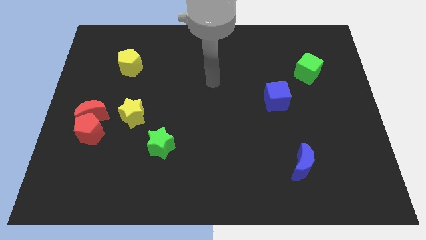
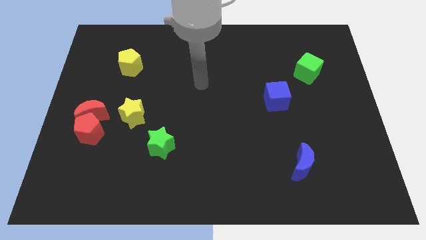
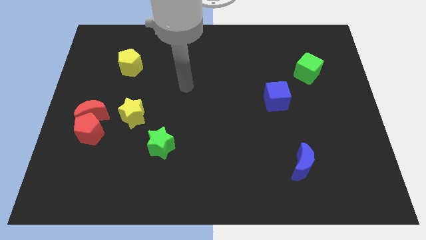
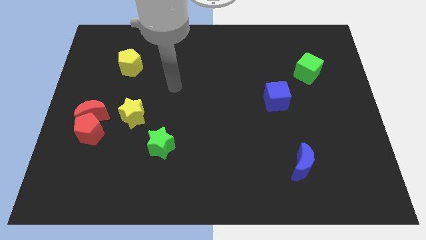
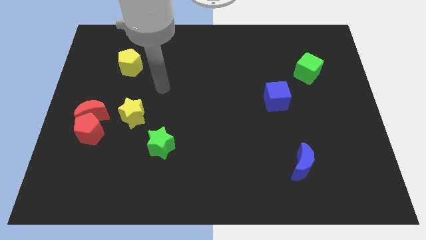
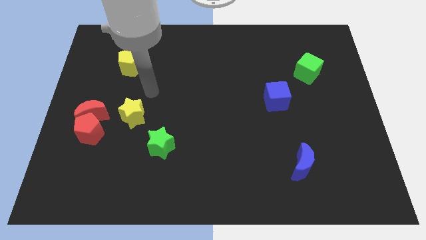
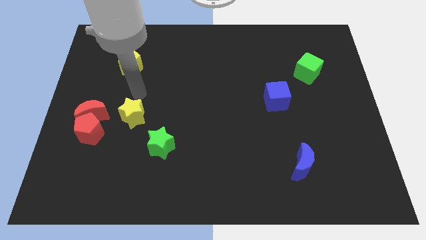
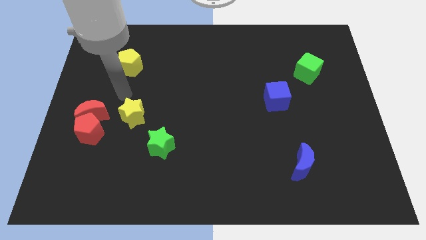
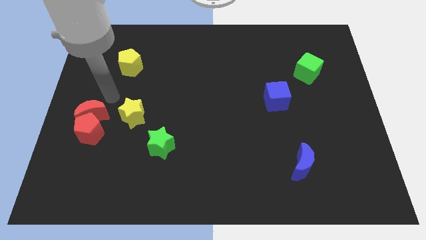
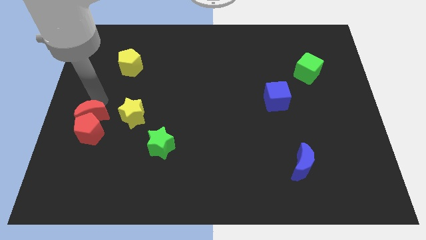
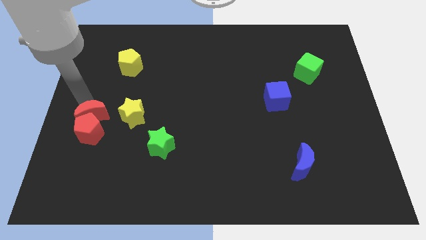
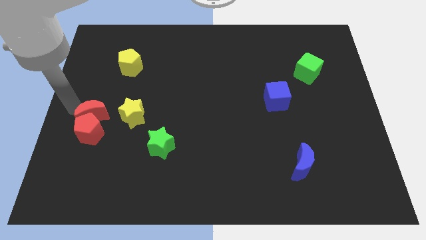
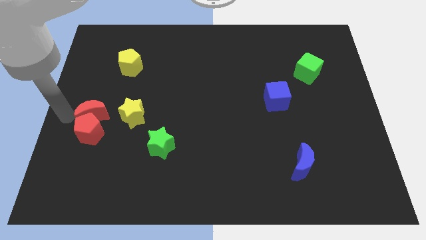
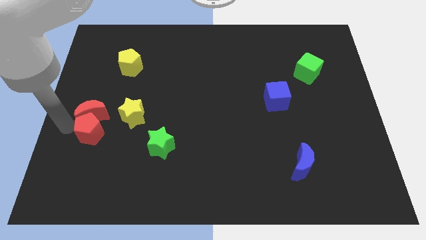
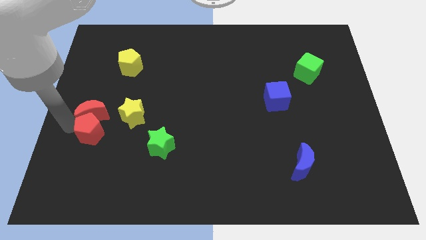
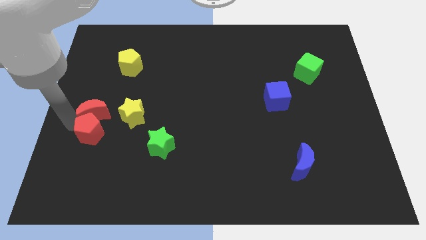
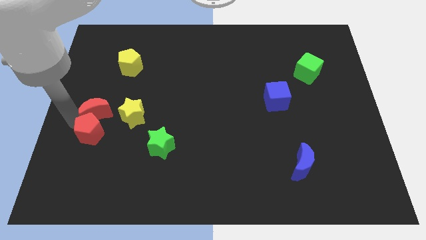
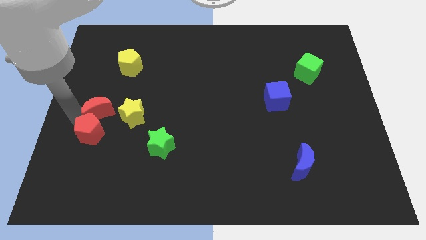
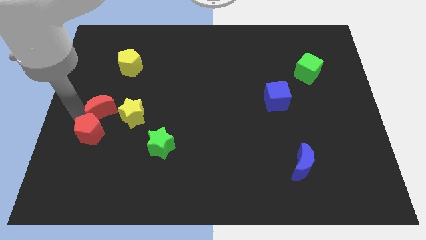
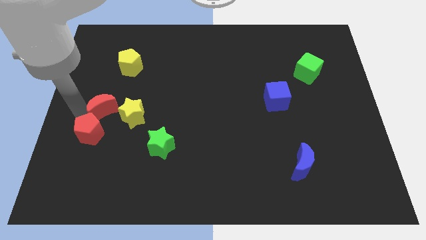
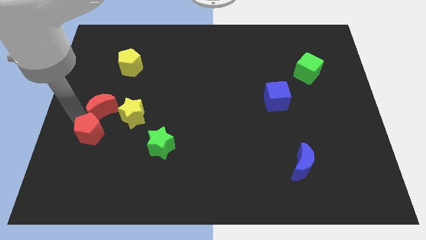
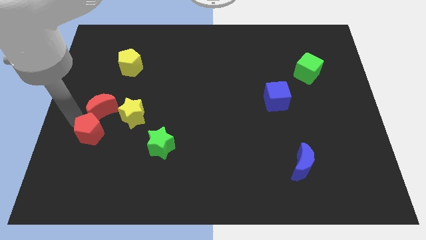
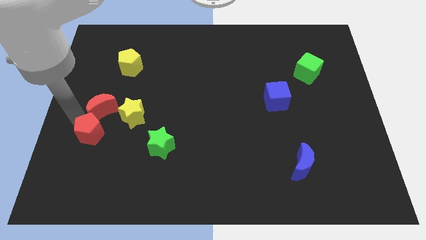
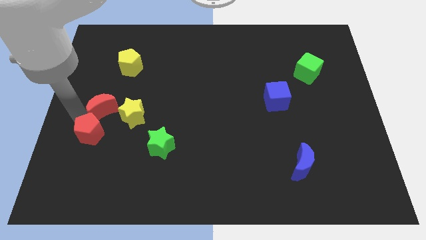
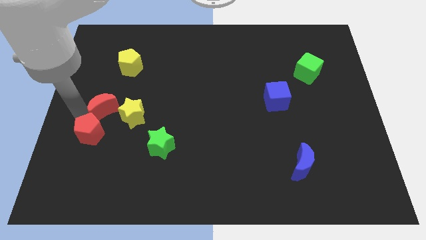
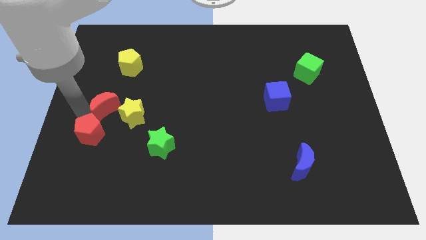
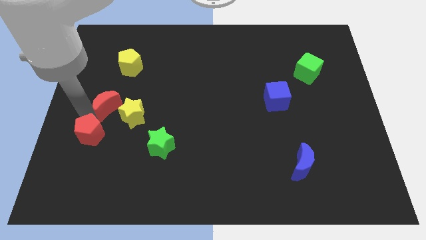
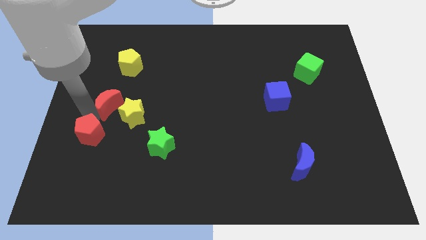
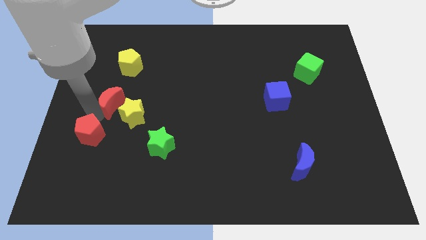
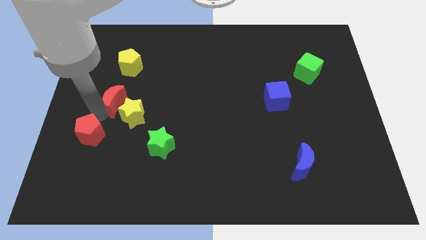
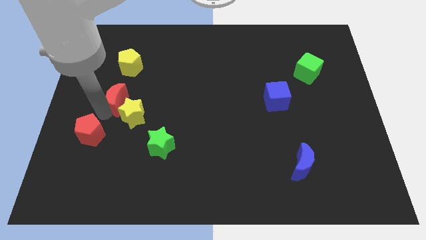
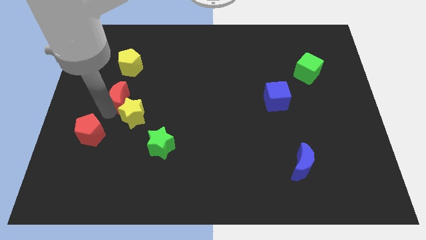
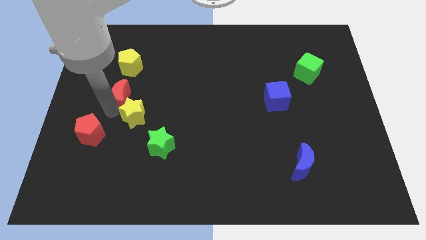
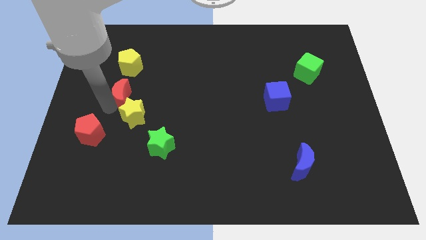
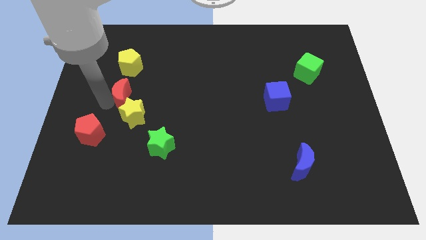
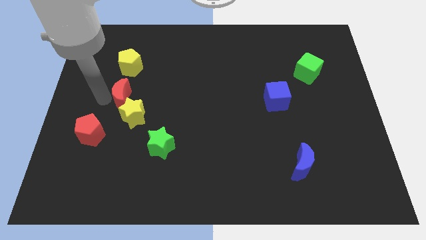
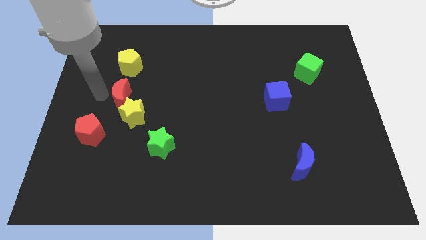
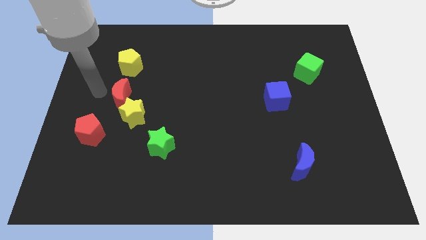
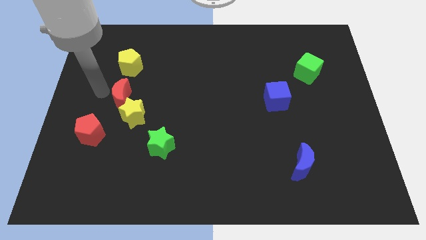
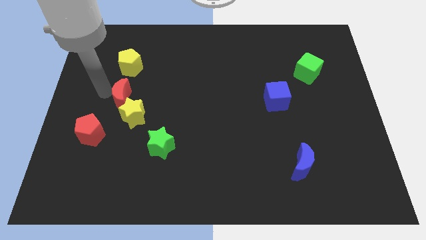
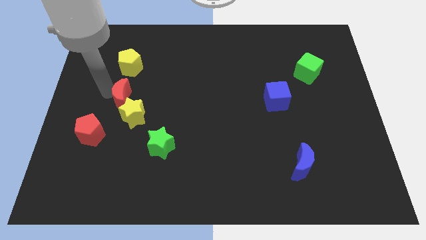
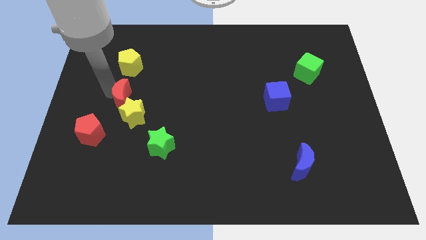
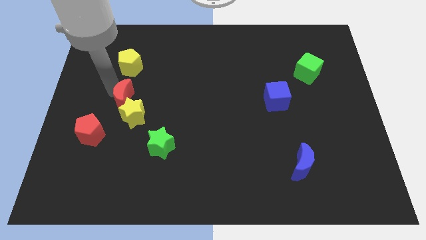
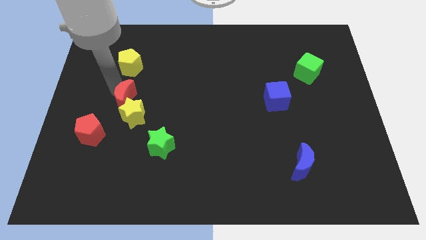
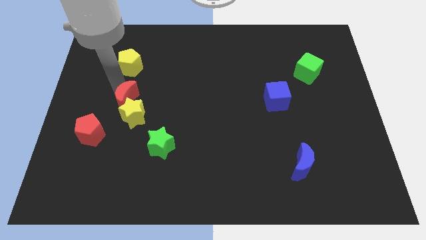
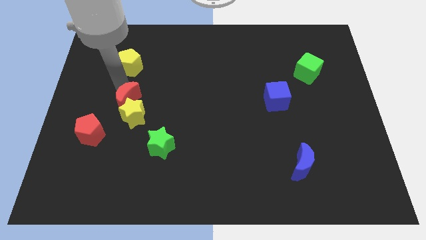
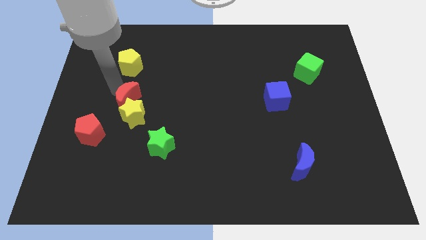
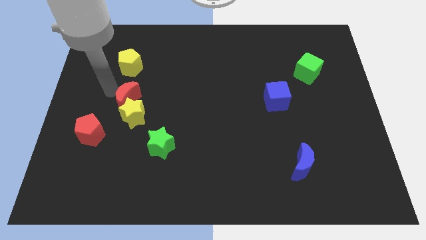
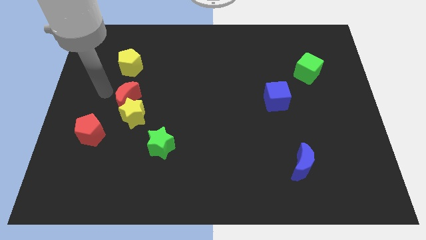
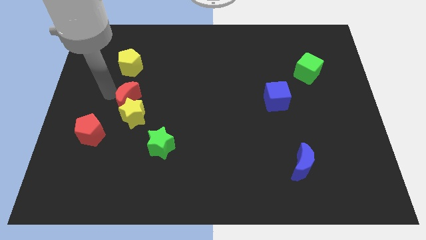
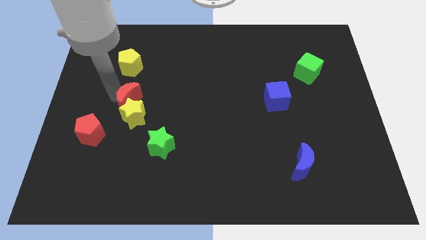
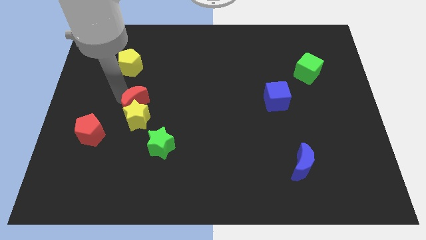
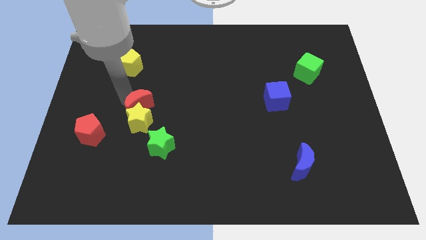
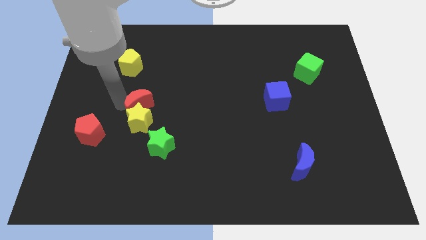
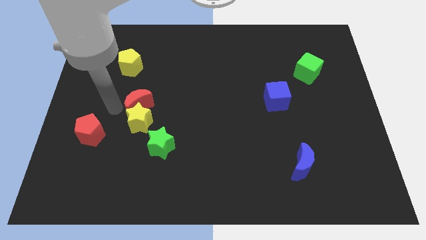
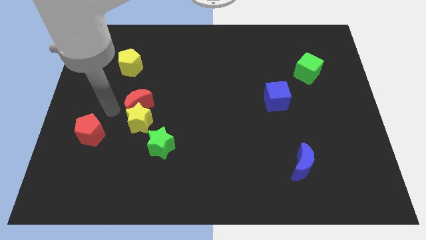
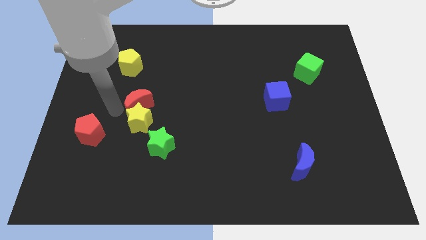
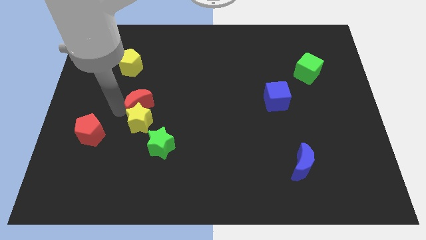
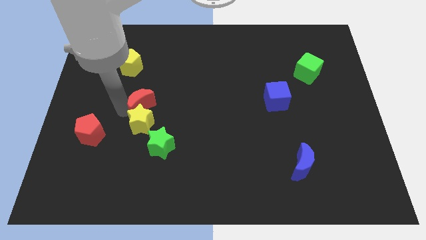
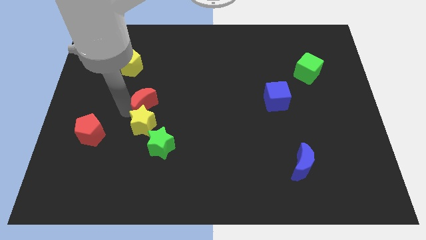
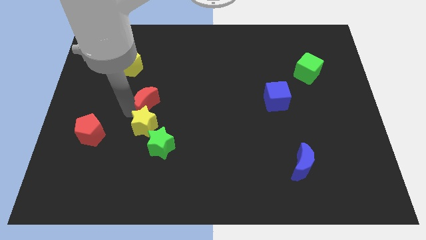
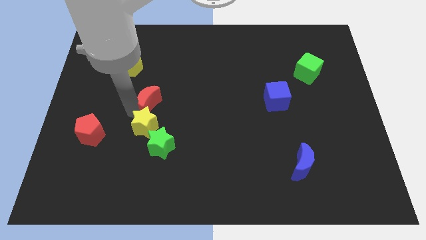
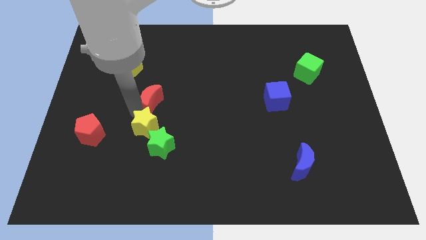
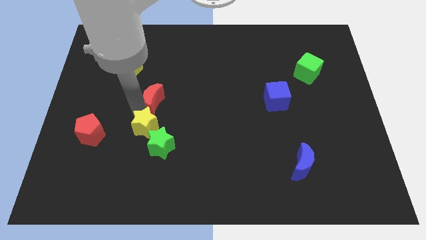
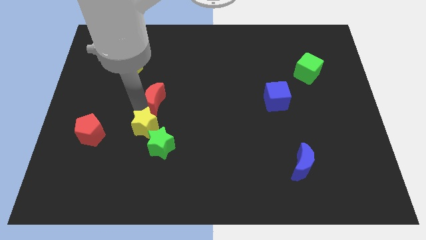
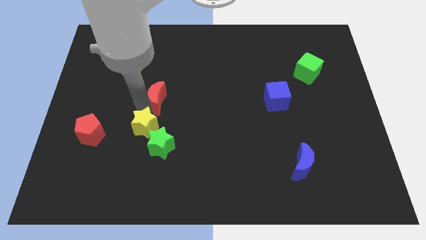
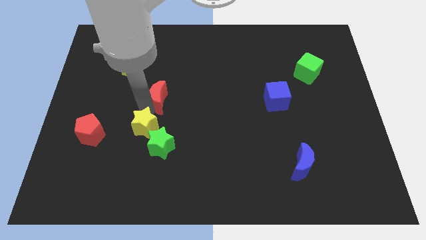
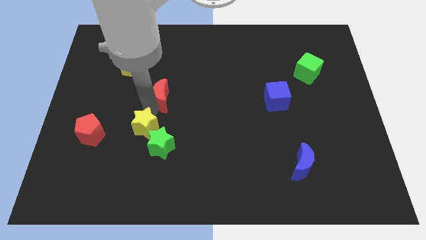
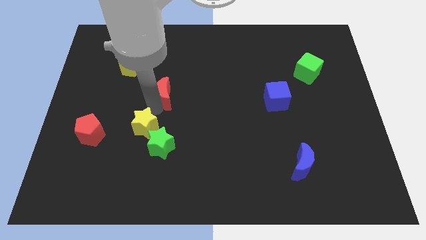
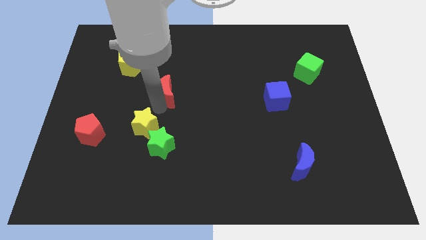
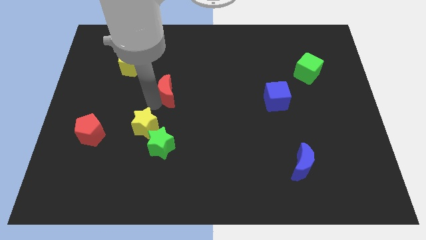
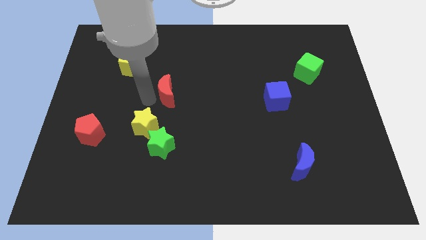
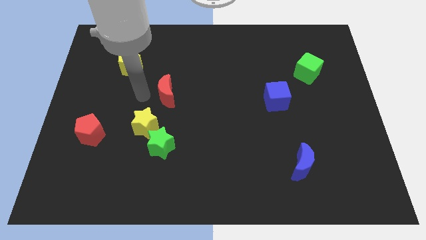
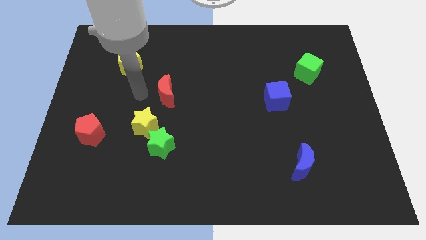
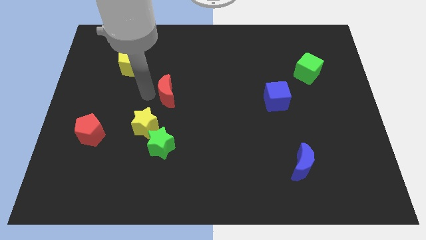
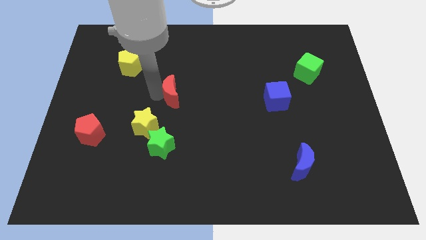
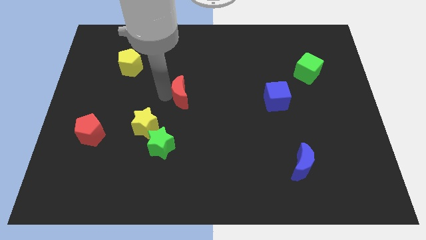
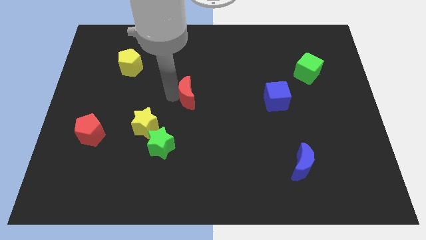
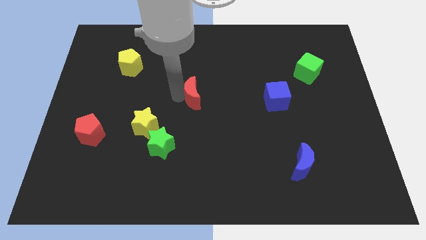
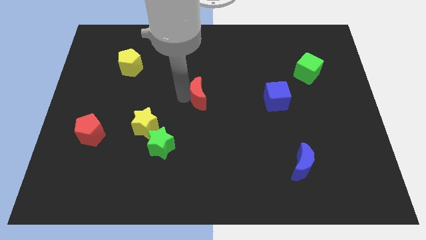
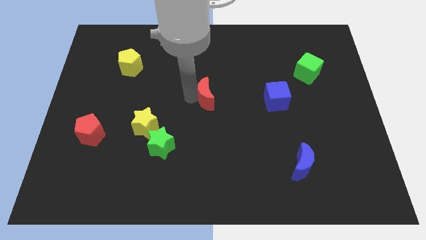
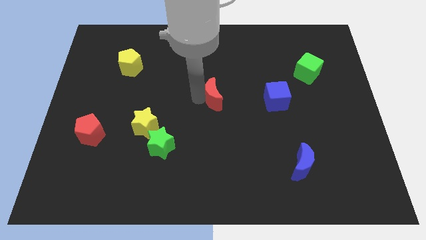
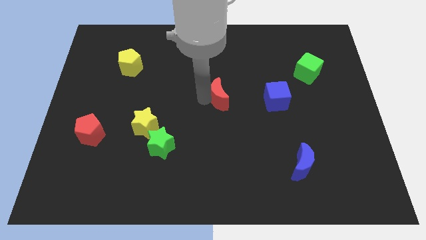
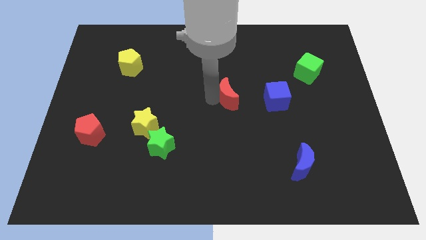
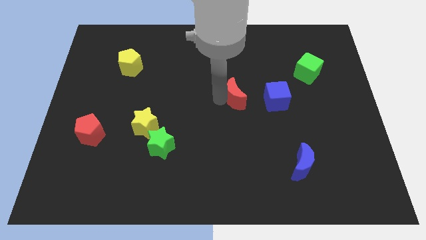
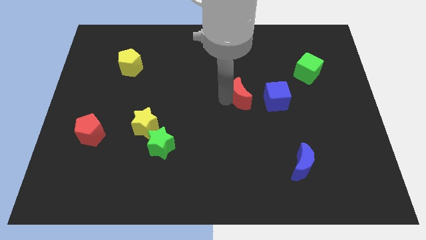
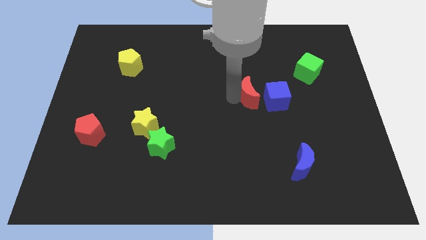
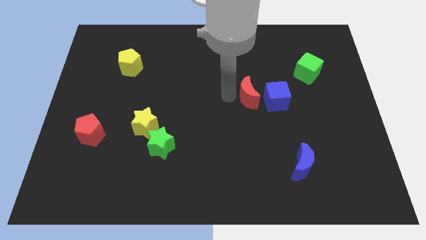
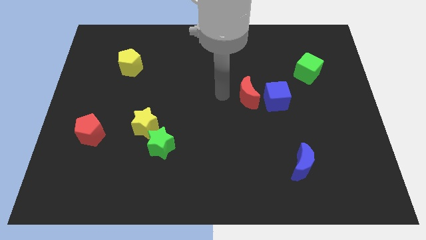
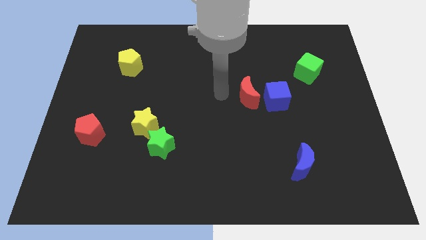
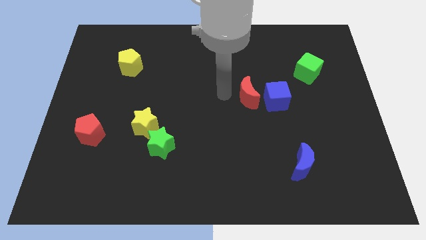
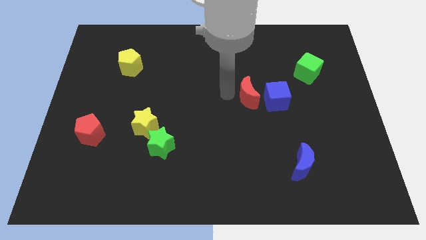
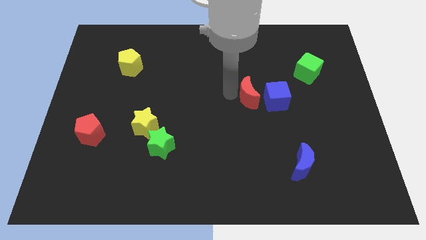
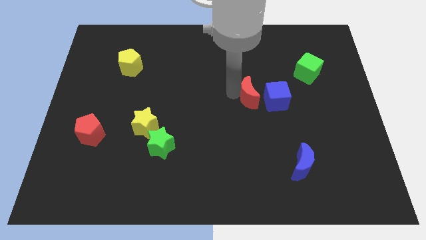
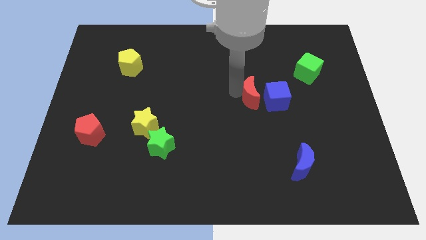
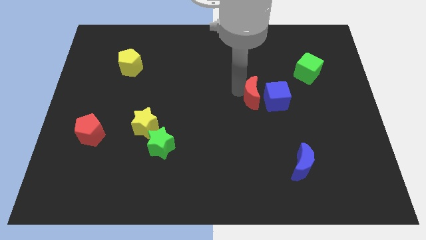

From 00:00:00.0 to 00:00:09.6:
push the red moon towards the blue cube
